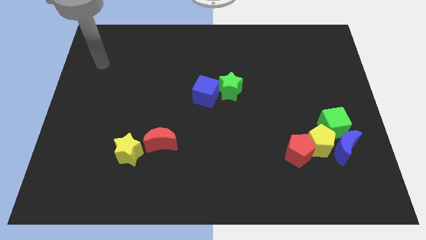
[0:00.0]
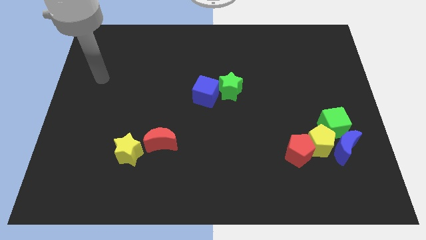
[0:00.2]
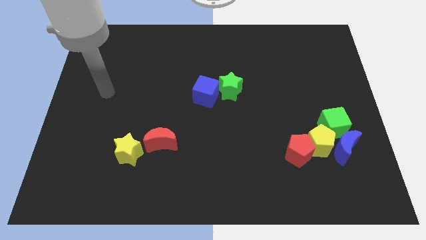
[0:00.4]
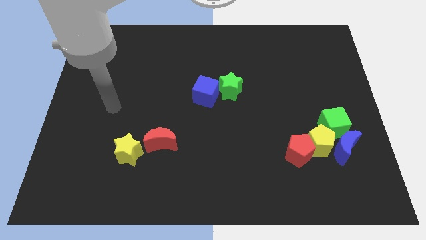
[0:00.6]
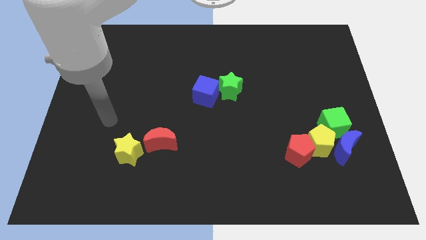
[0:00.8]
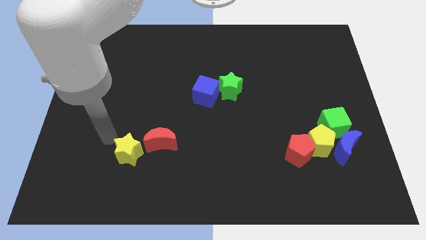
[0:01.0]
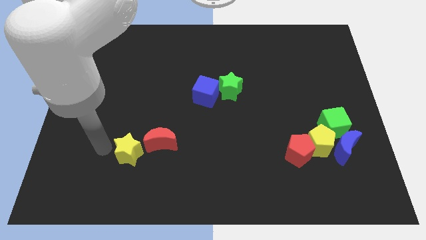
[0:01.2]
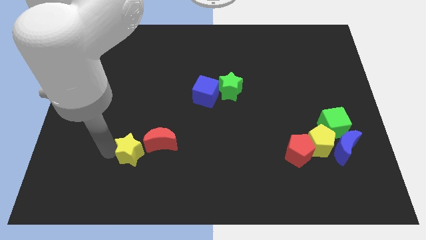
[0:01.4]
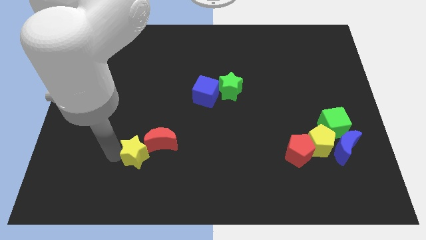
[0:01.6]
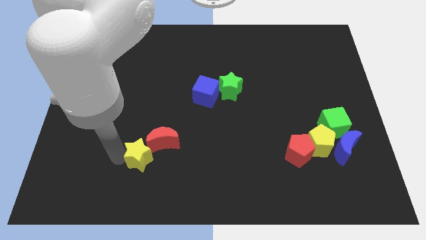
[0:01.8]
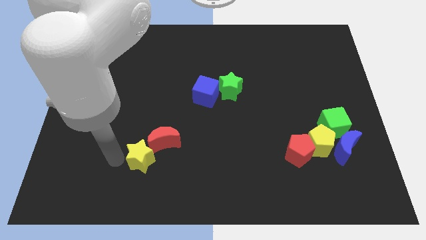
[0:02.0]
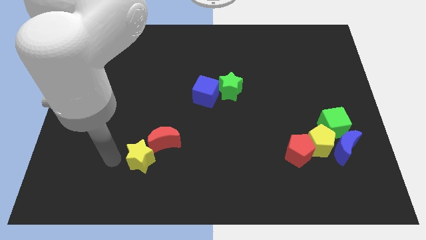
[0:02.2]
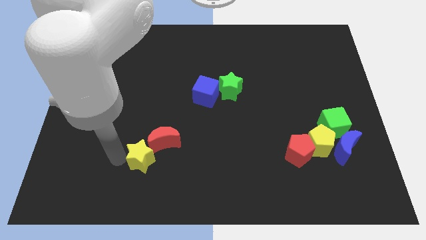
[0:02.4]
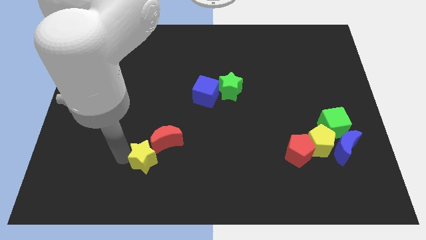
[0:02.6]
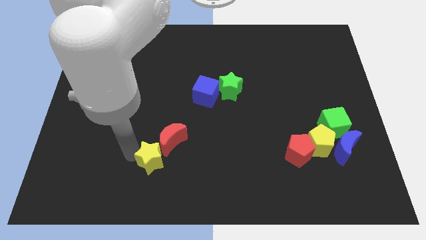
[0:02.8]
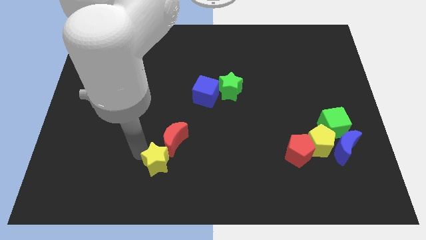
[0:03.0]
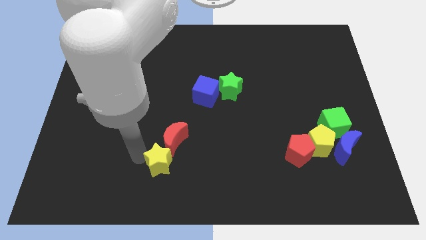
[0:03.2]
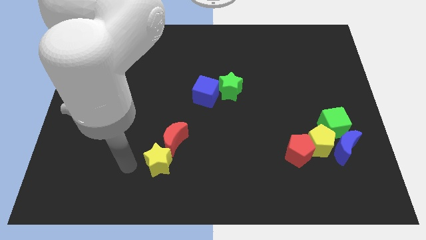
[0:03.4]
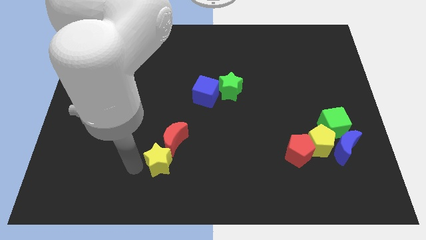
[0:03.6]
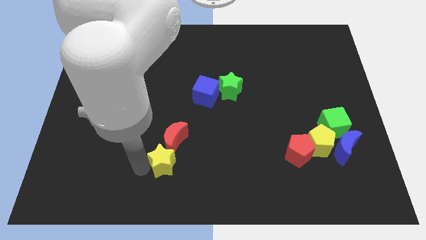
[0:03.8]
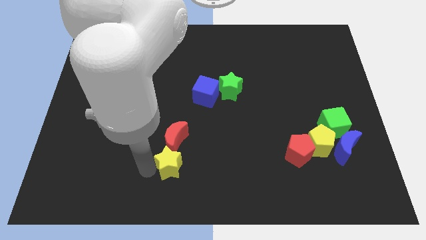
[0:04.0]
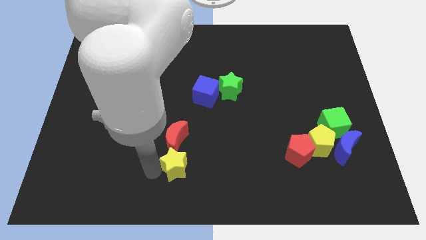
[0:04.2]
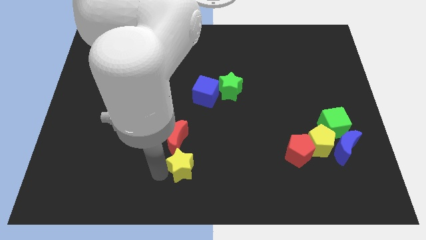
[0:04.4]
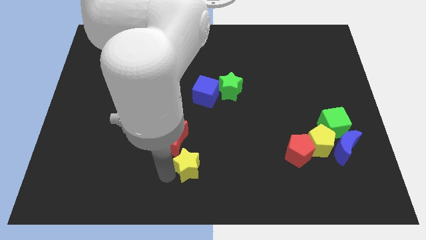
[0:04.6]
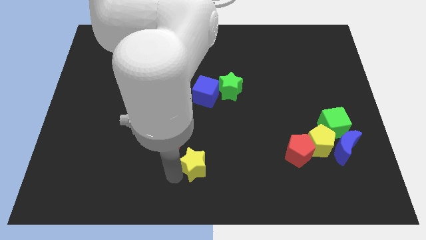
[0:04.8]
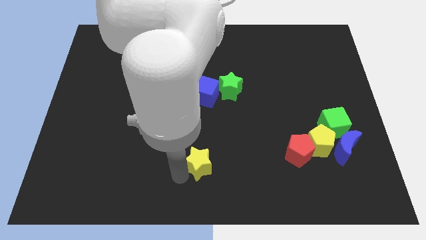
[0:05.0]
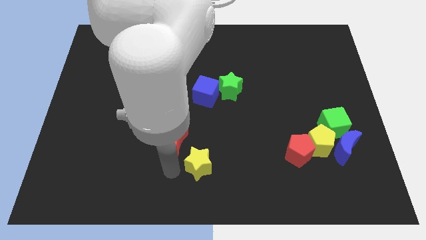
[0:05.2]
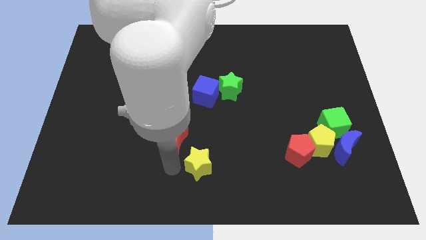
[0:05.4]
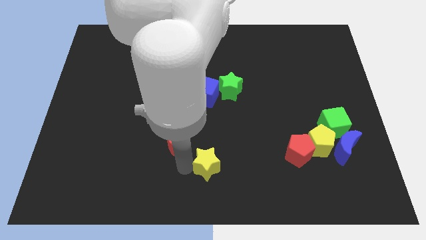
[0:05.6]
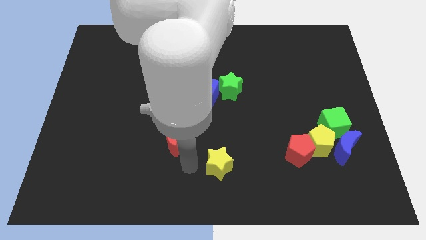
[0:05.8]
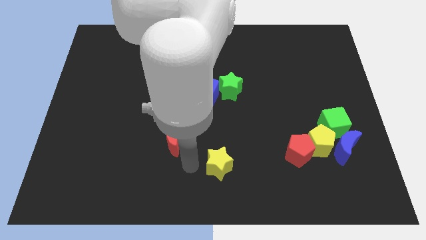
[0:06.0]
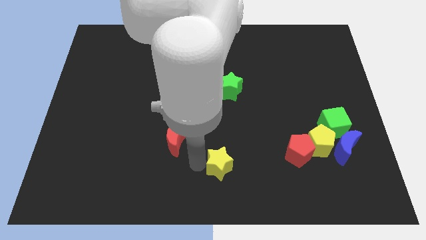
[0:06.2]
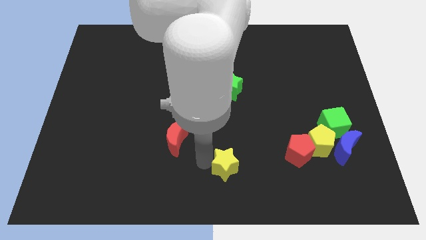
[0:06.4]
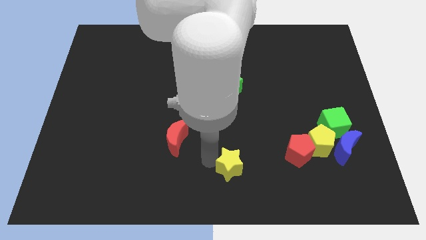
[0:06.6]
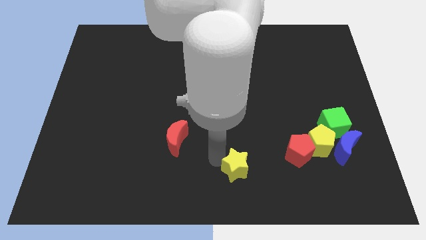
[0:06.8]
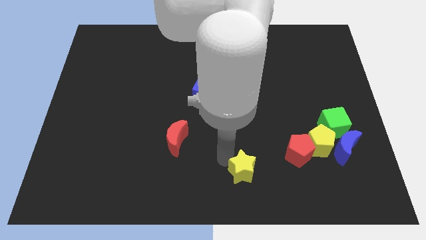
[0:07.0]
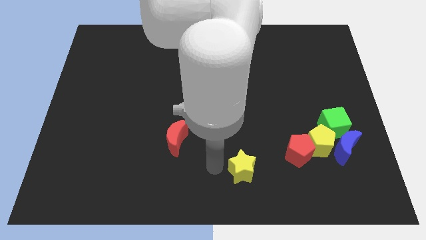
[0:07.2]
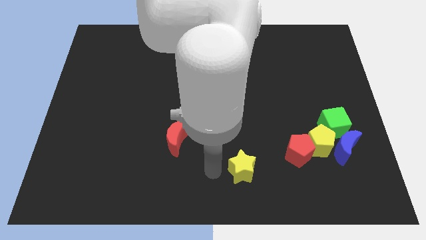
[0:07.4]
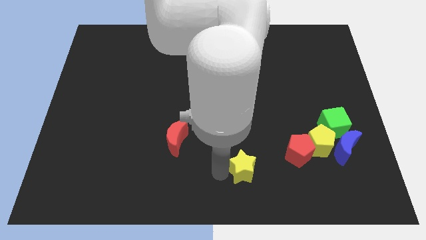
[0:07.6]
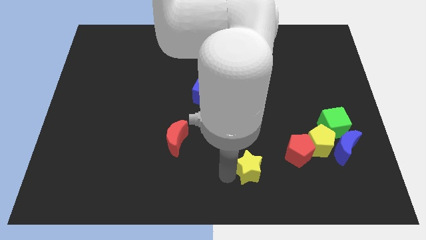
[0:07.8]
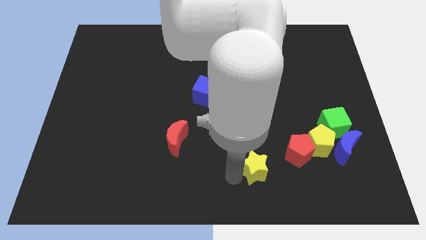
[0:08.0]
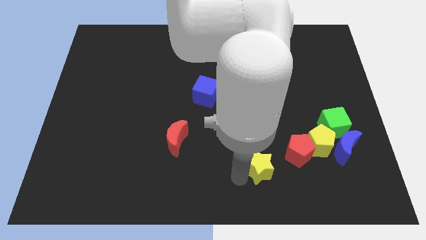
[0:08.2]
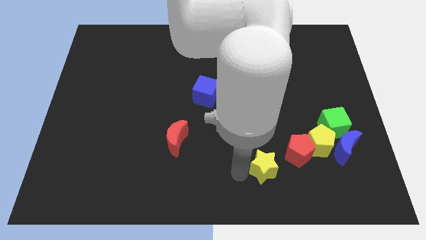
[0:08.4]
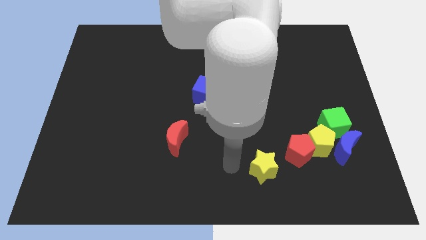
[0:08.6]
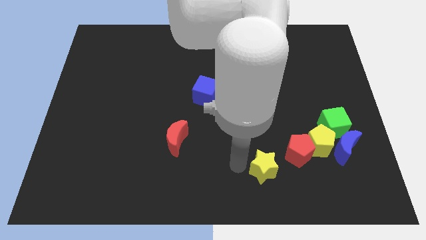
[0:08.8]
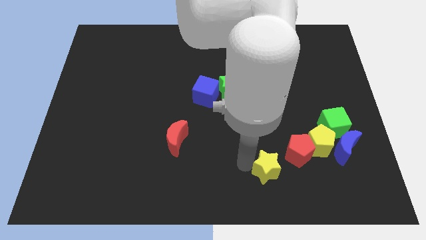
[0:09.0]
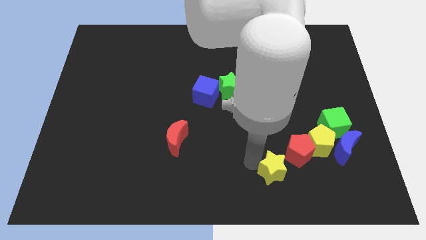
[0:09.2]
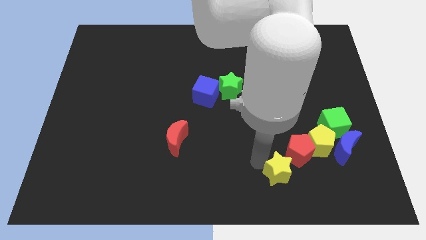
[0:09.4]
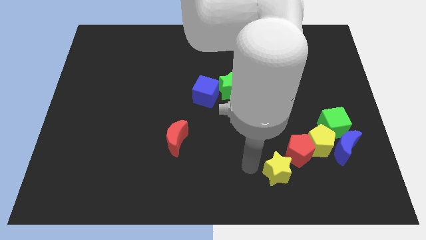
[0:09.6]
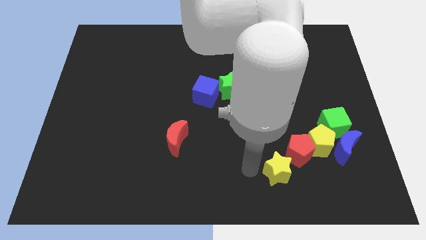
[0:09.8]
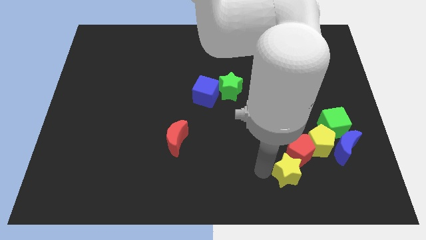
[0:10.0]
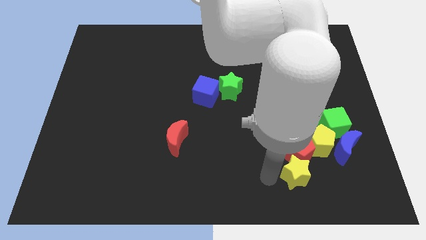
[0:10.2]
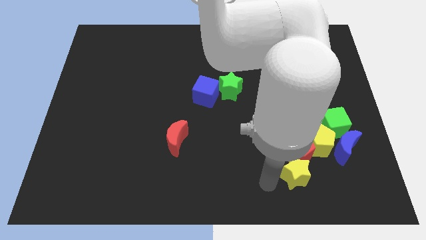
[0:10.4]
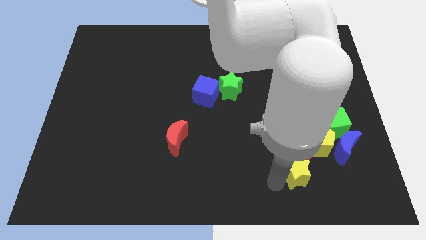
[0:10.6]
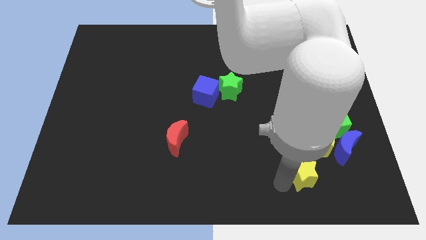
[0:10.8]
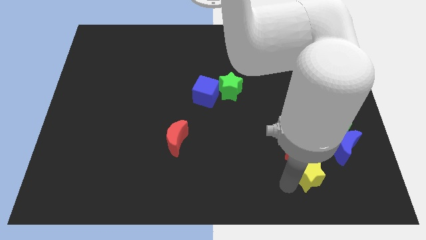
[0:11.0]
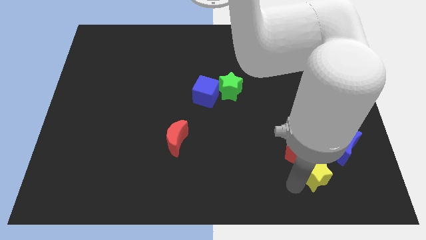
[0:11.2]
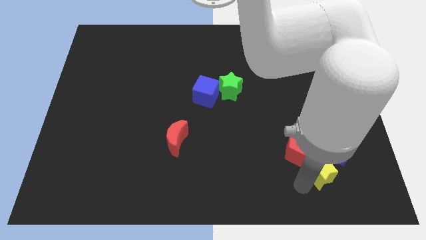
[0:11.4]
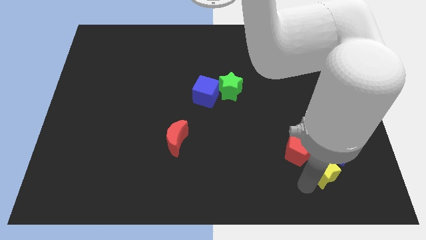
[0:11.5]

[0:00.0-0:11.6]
slide the yellow star to the bottom of the green cube

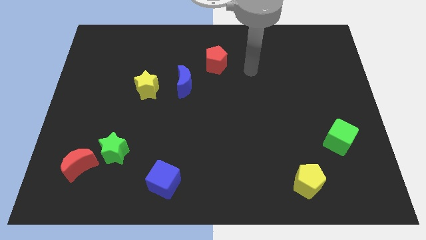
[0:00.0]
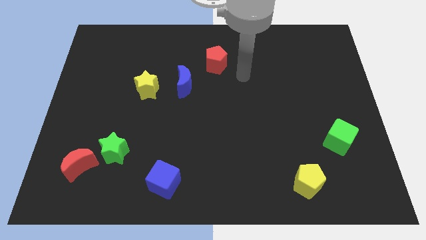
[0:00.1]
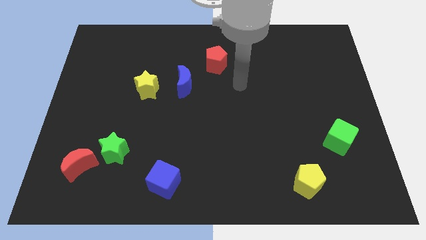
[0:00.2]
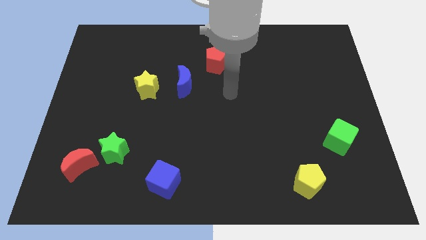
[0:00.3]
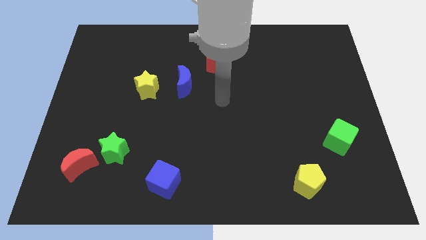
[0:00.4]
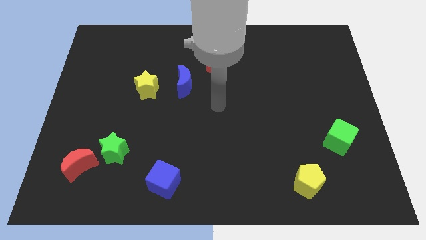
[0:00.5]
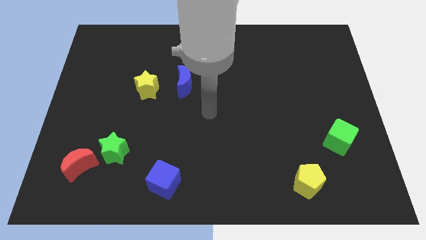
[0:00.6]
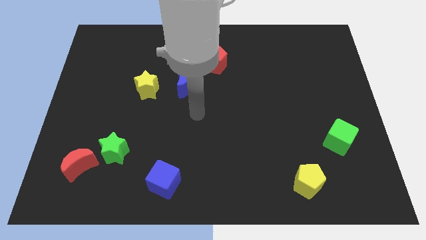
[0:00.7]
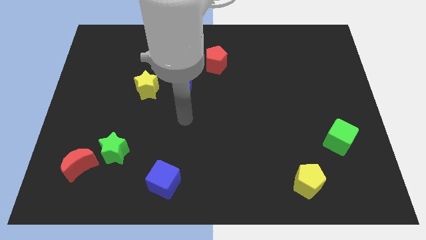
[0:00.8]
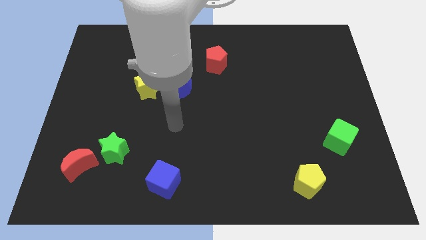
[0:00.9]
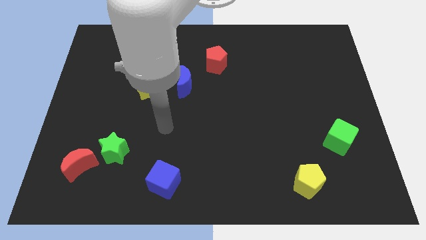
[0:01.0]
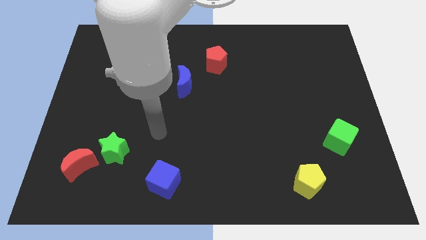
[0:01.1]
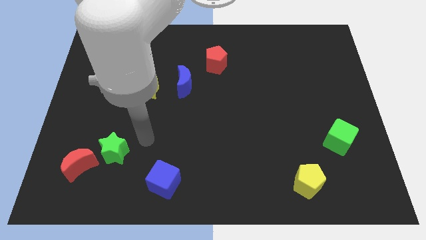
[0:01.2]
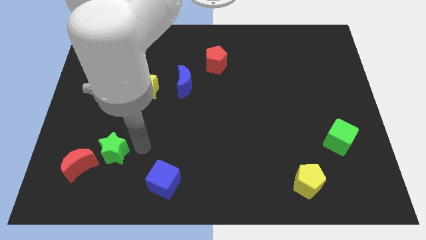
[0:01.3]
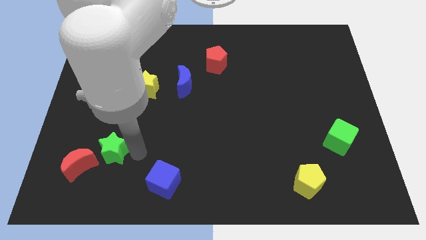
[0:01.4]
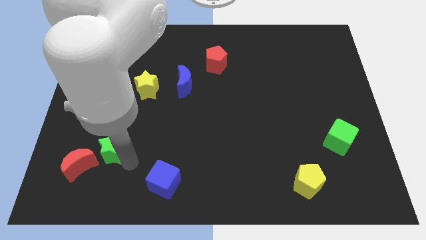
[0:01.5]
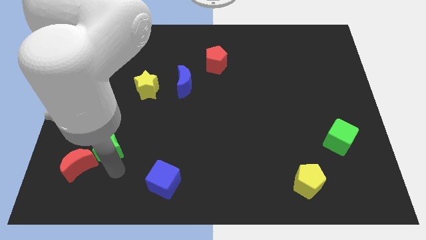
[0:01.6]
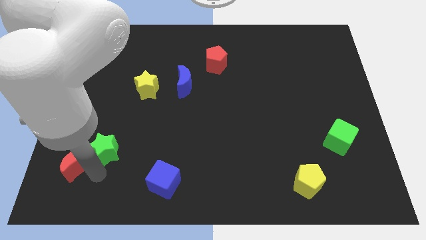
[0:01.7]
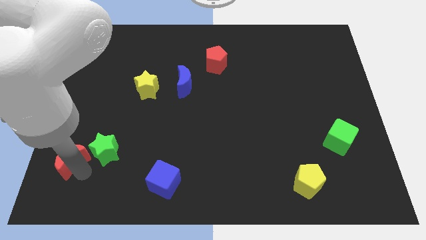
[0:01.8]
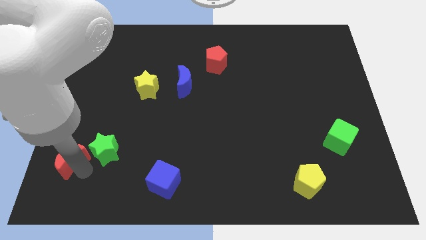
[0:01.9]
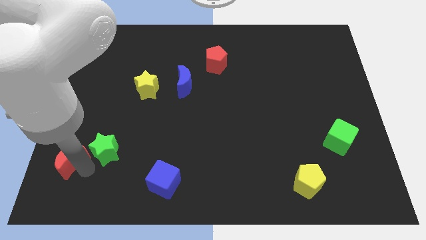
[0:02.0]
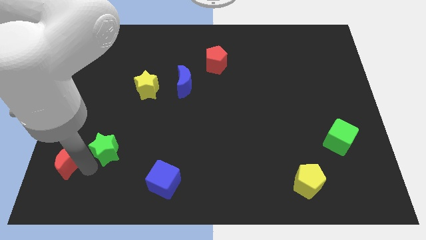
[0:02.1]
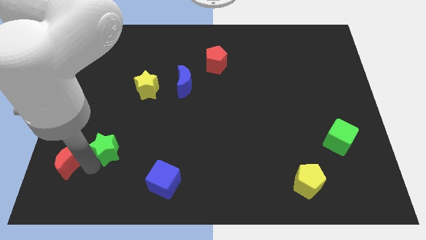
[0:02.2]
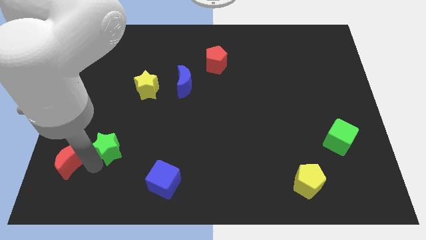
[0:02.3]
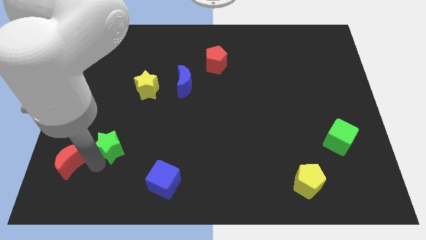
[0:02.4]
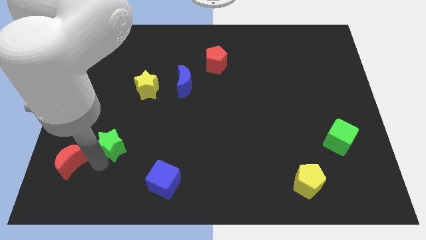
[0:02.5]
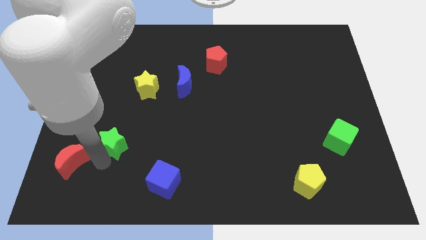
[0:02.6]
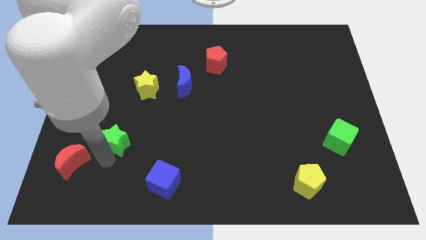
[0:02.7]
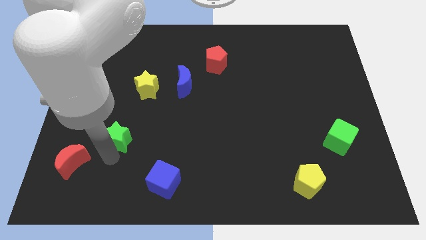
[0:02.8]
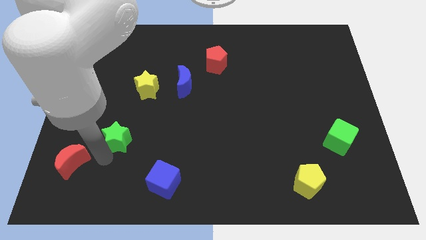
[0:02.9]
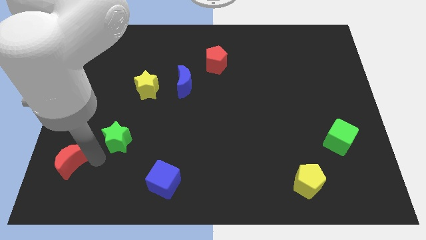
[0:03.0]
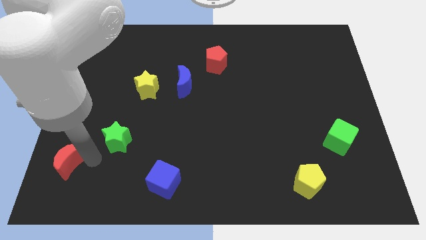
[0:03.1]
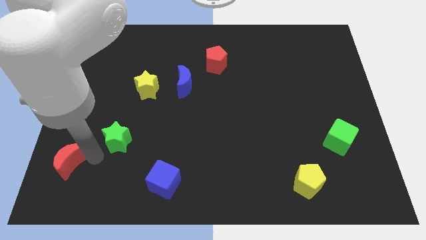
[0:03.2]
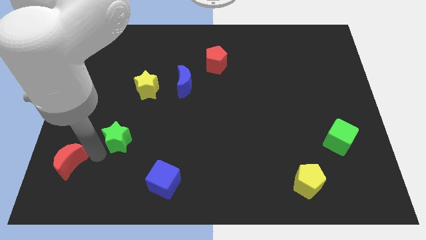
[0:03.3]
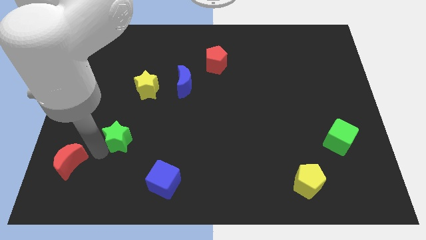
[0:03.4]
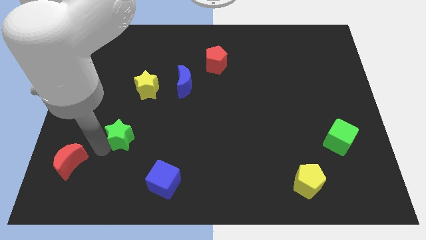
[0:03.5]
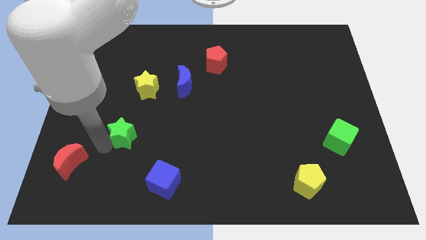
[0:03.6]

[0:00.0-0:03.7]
push the green star below the yellow star
